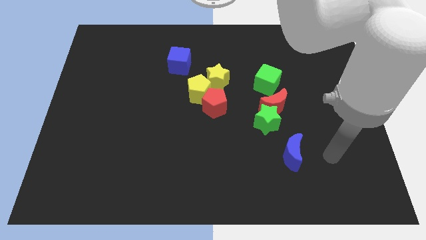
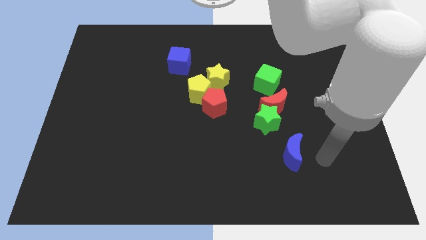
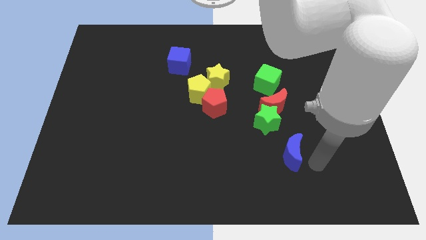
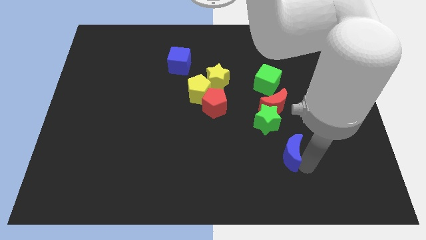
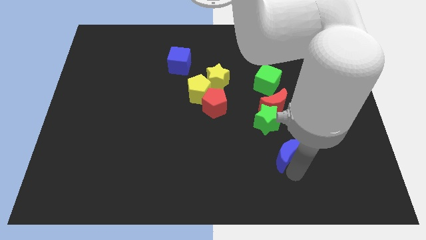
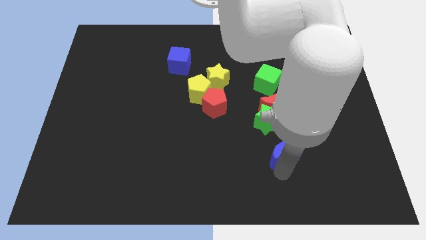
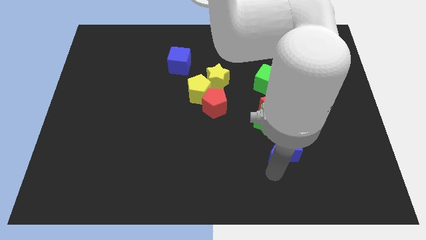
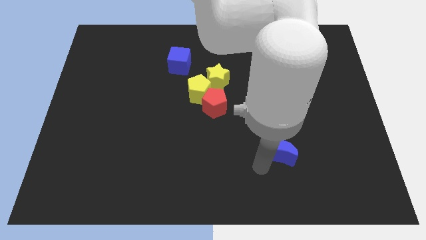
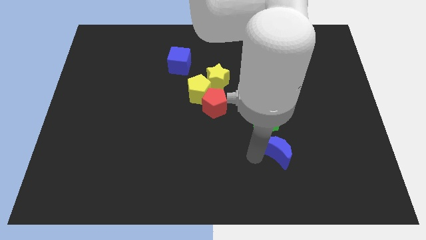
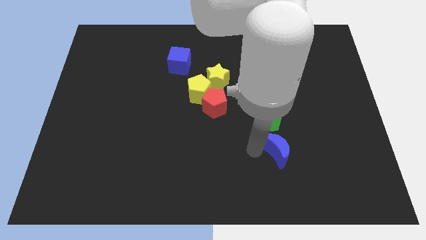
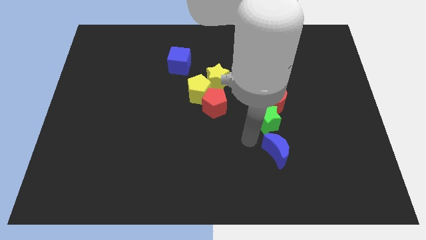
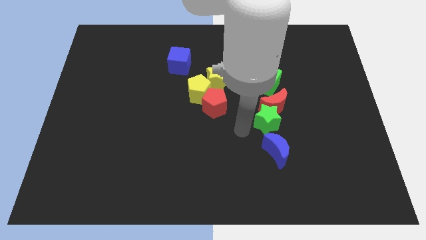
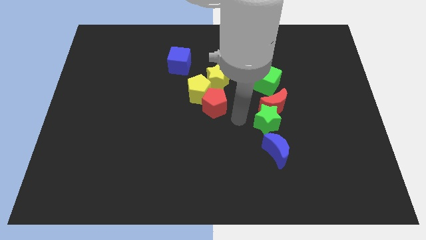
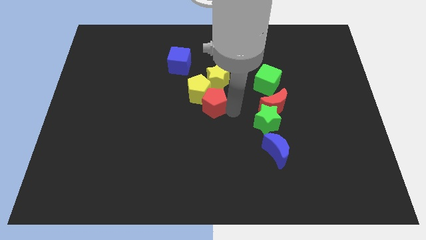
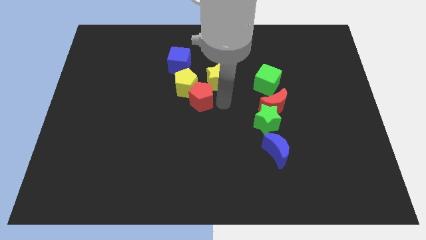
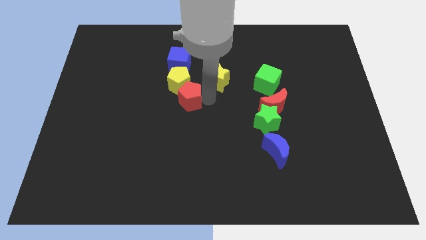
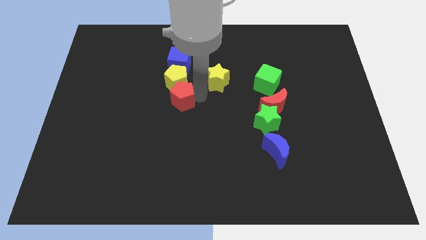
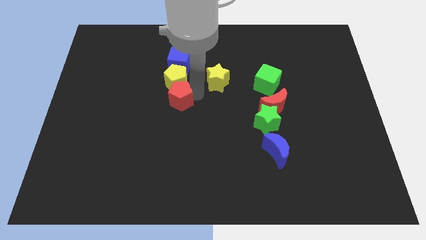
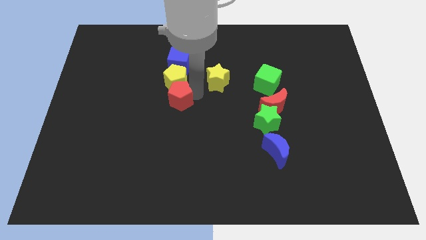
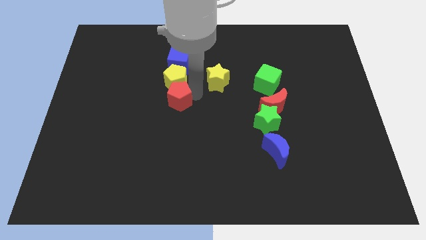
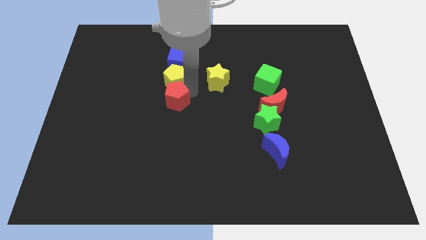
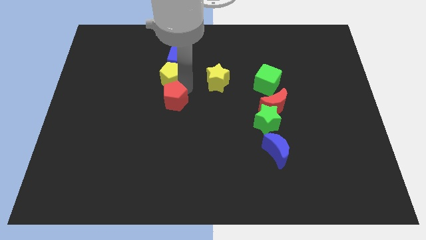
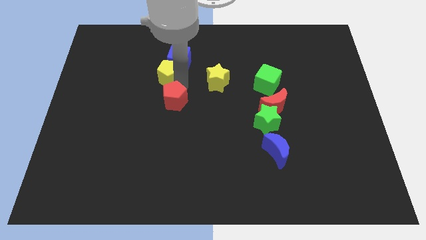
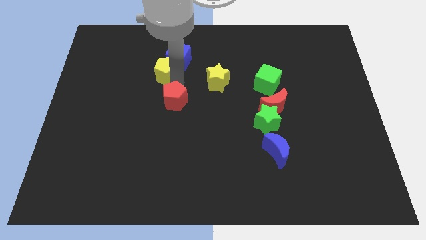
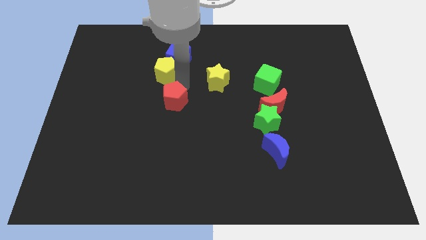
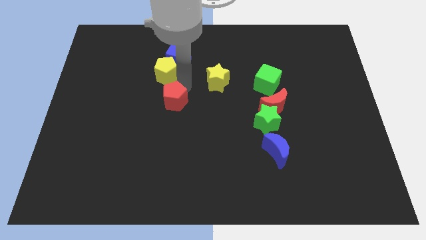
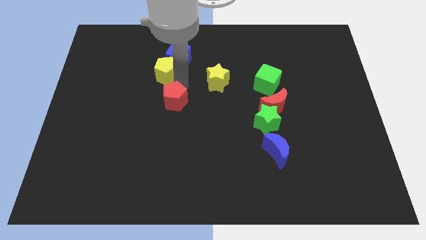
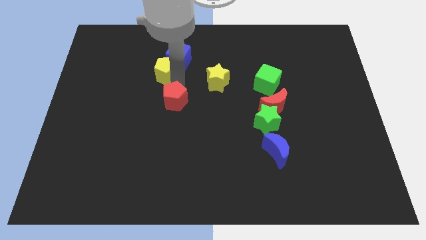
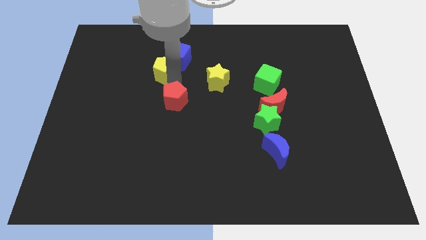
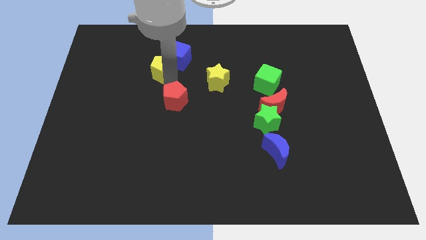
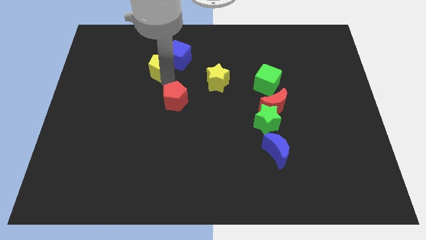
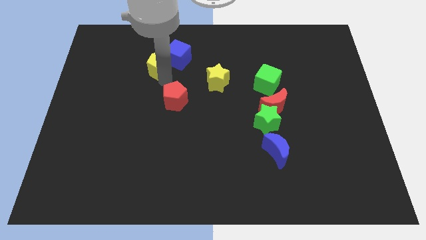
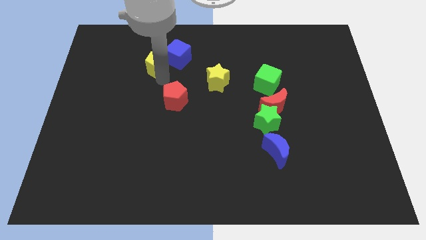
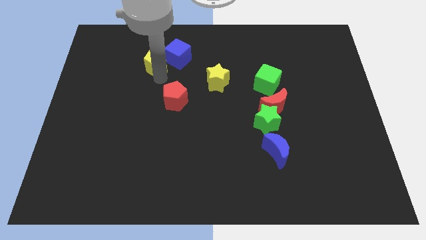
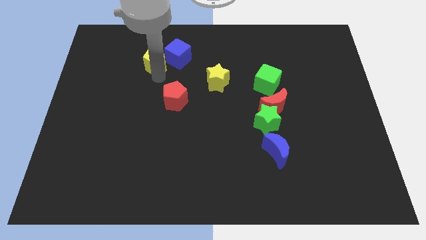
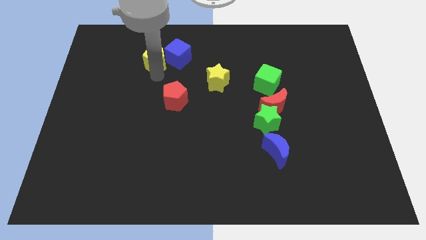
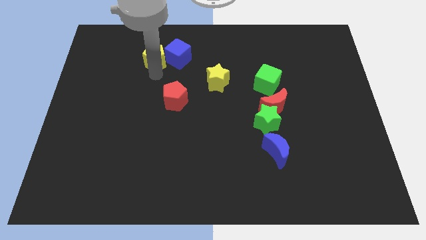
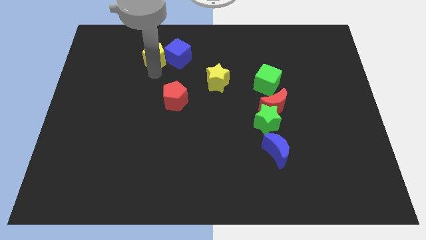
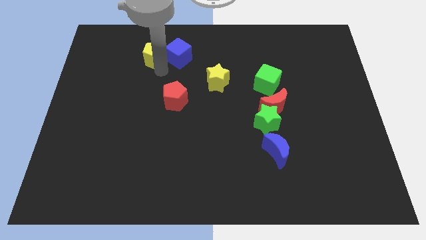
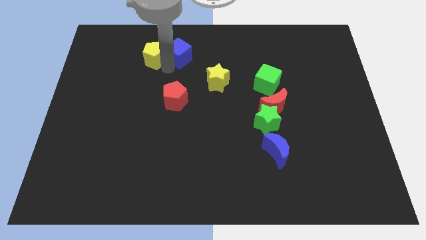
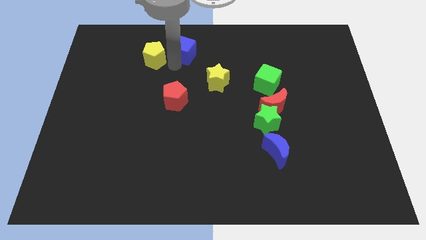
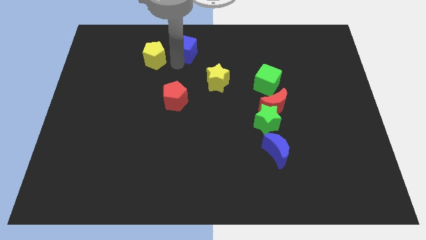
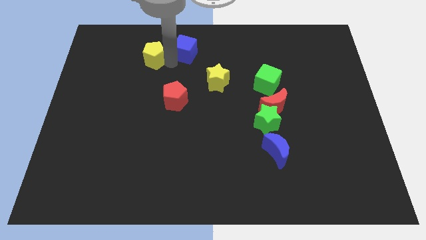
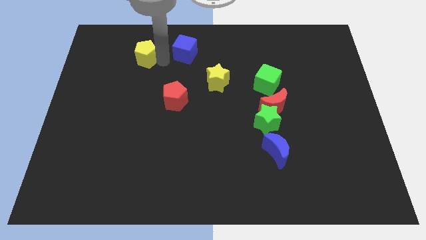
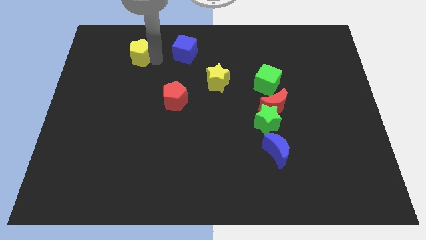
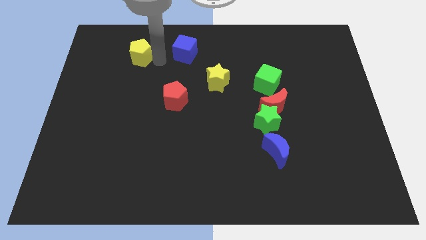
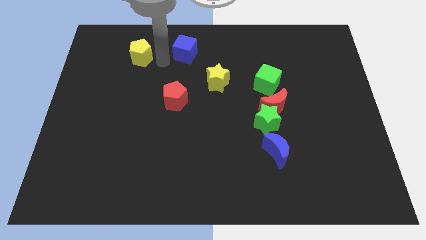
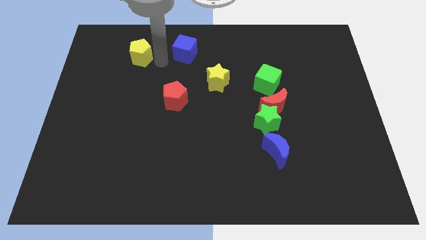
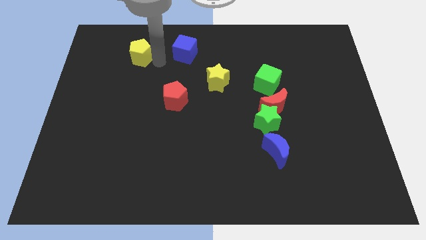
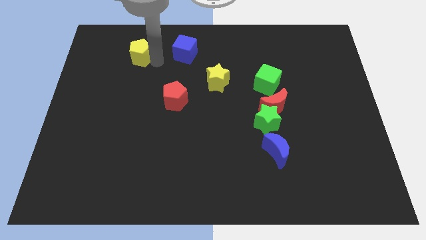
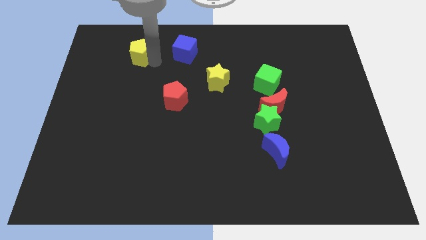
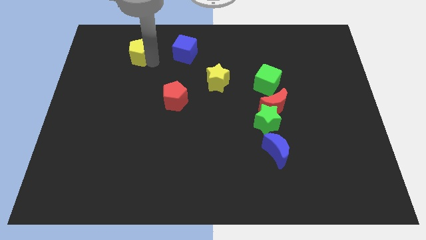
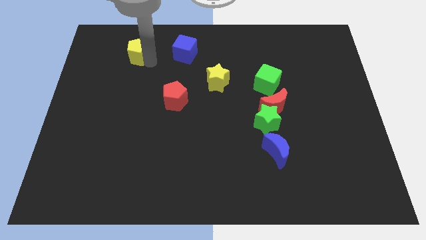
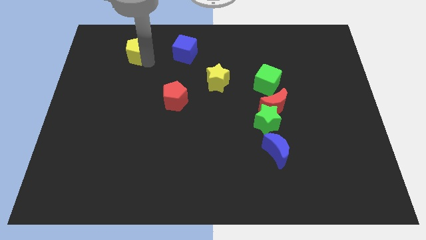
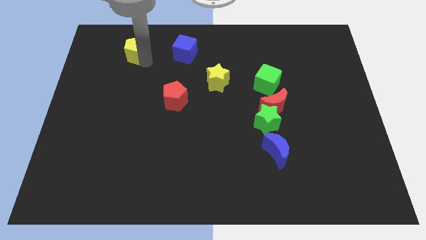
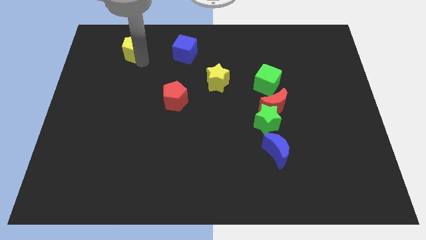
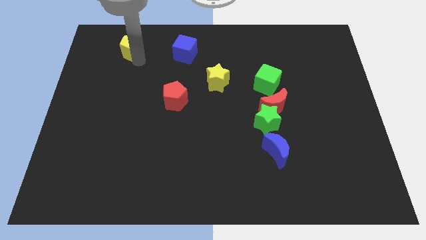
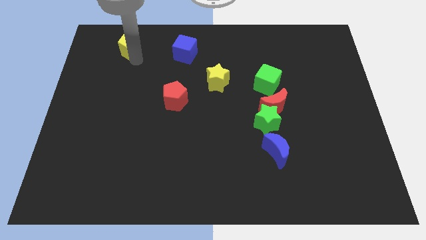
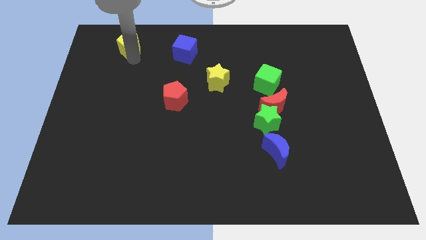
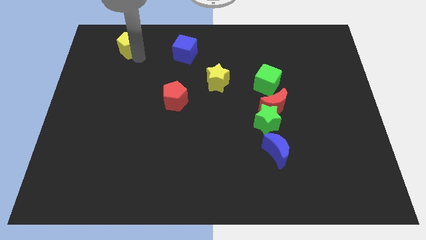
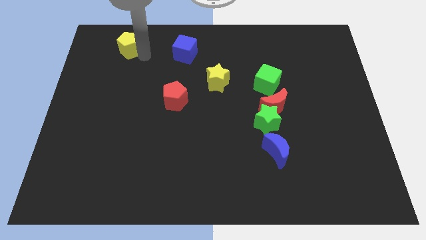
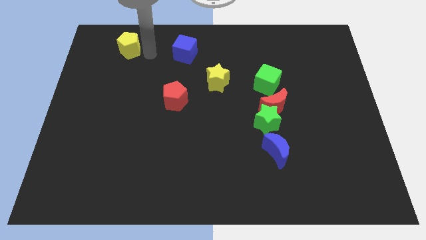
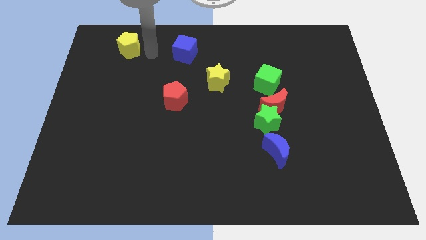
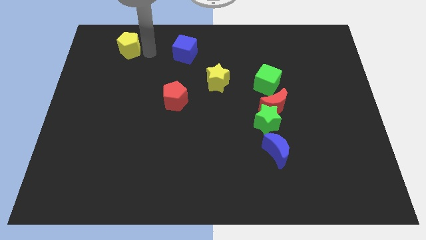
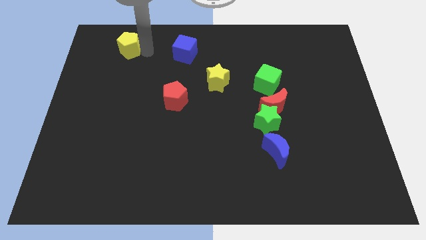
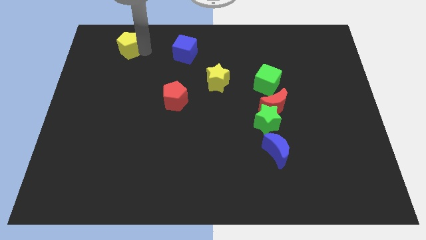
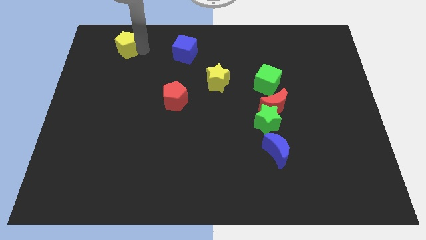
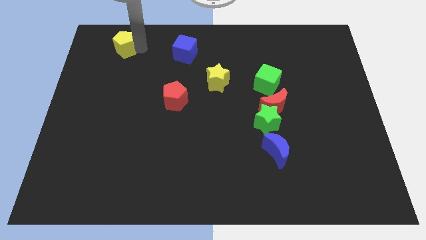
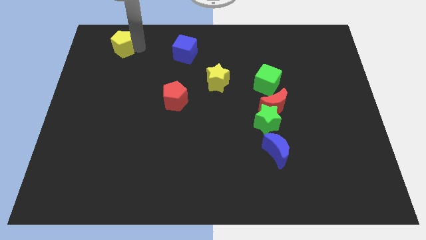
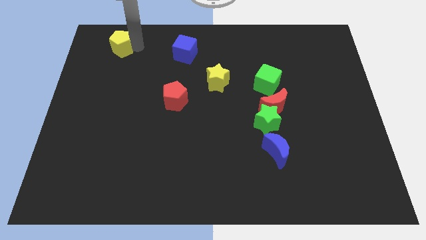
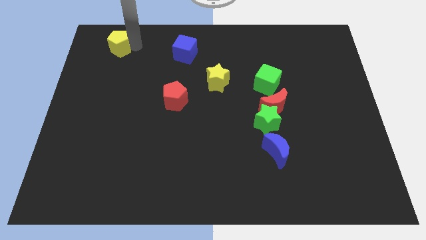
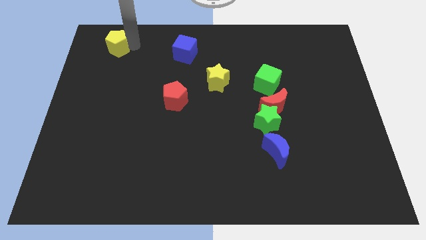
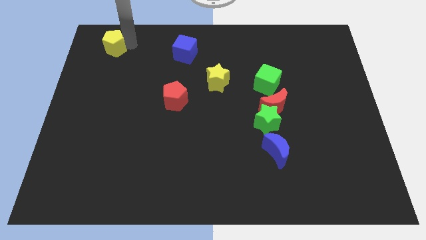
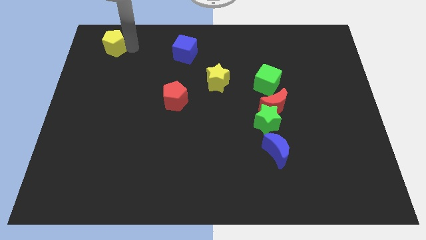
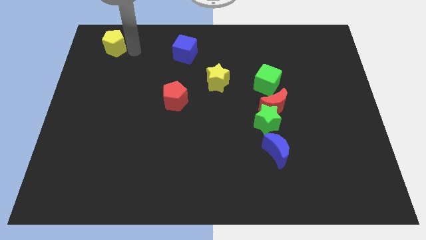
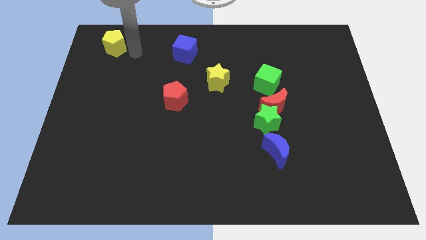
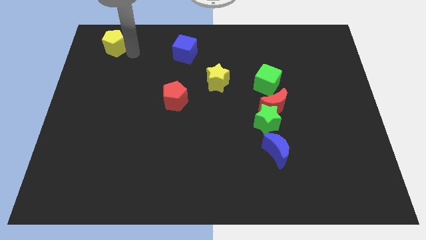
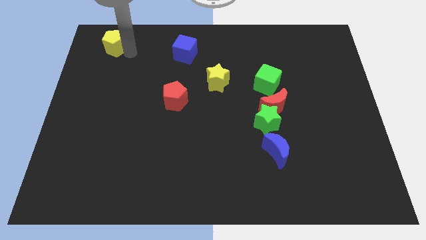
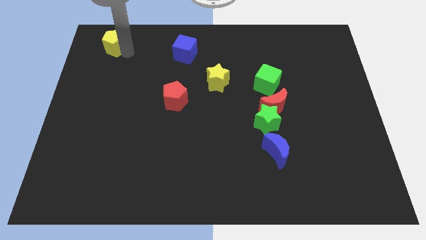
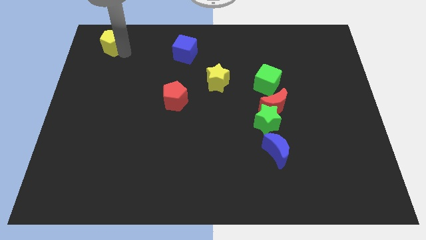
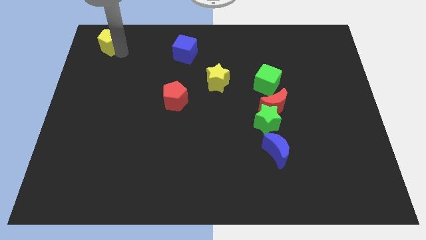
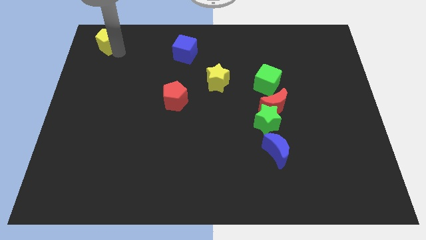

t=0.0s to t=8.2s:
slide the yellow pentagon to the upper left corner
